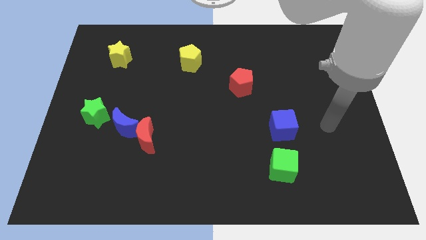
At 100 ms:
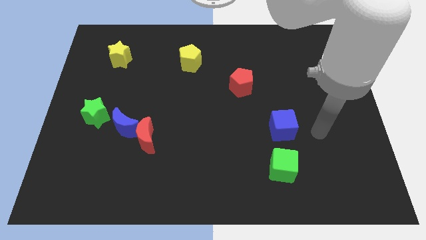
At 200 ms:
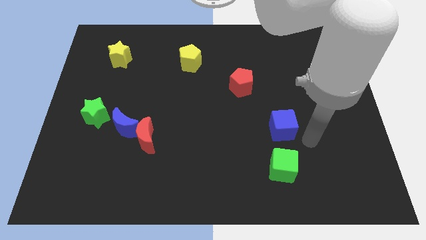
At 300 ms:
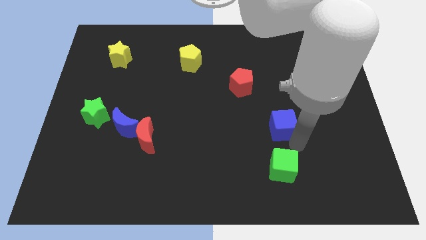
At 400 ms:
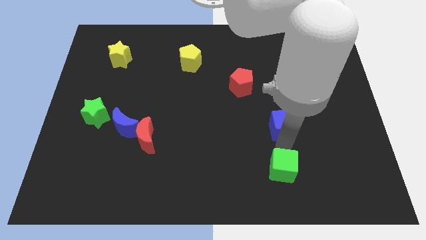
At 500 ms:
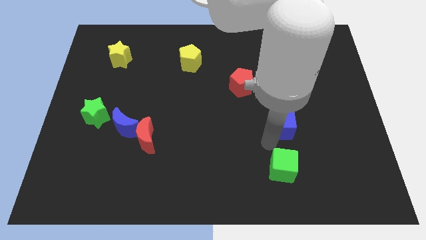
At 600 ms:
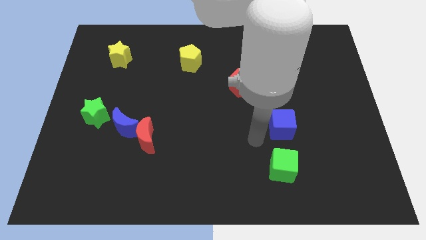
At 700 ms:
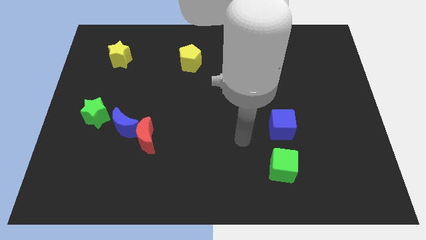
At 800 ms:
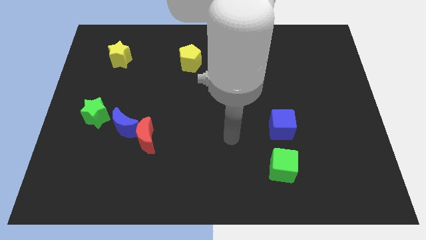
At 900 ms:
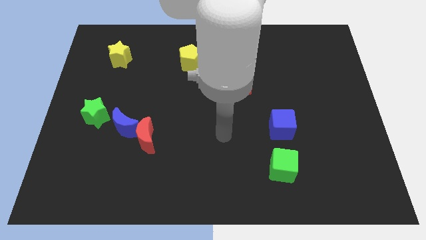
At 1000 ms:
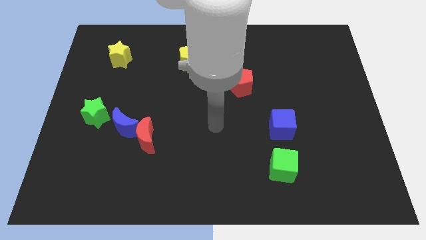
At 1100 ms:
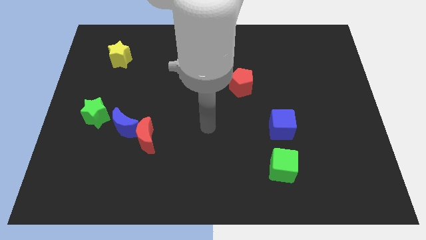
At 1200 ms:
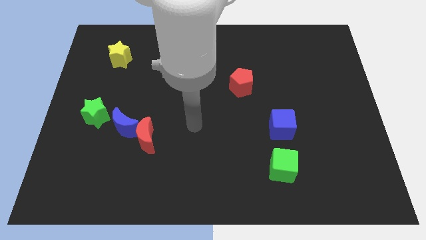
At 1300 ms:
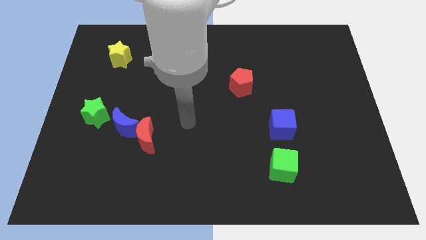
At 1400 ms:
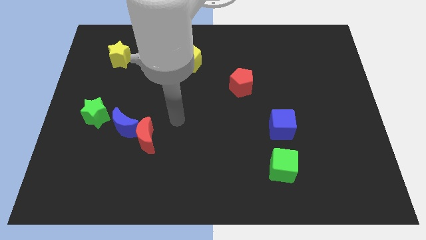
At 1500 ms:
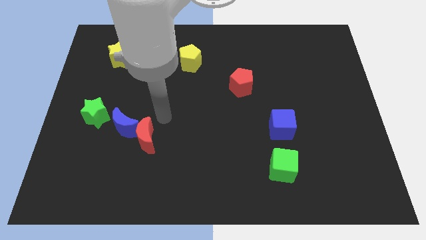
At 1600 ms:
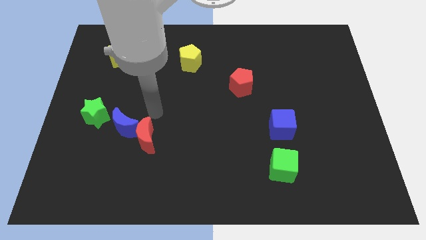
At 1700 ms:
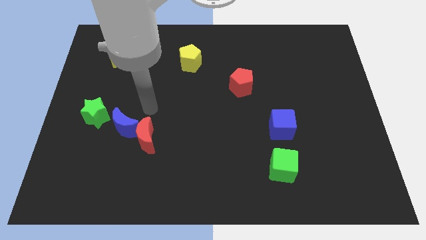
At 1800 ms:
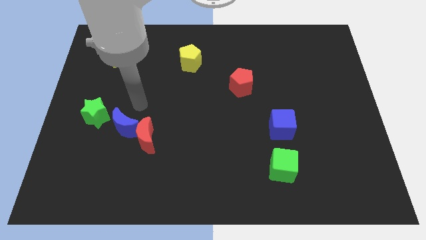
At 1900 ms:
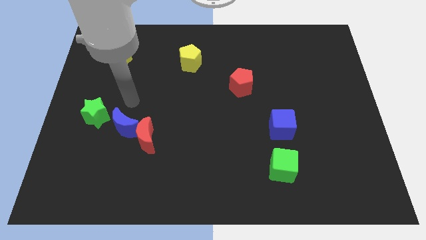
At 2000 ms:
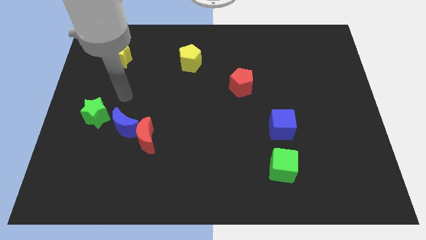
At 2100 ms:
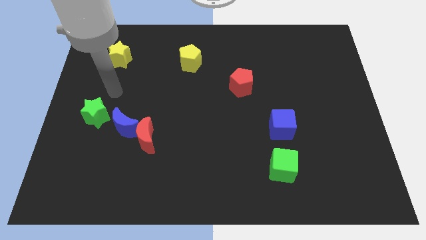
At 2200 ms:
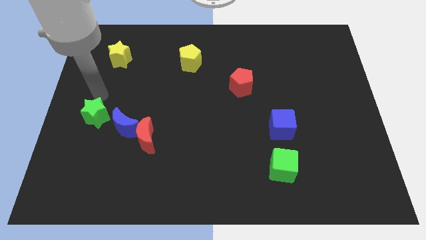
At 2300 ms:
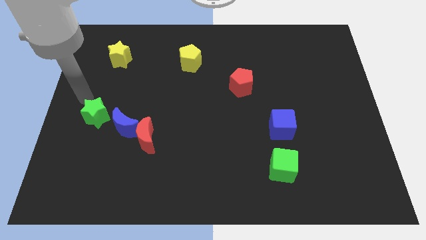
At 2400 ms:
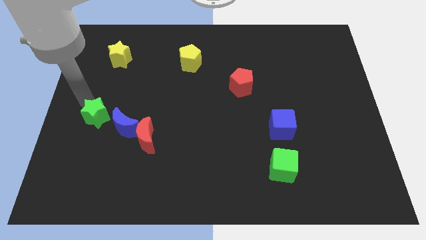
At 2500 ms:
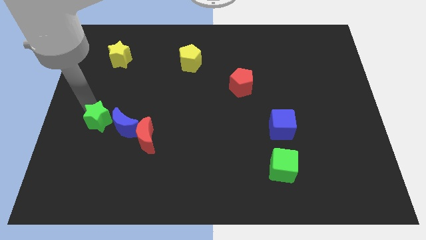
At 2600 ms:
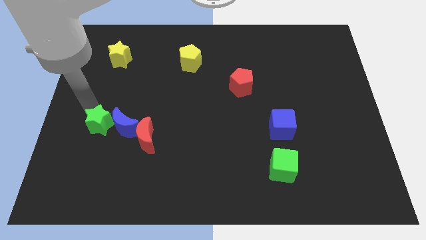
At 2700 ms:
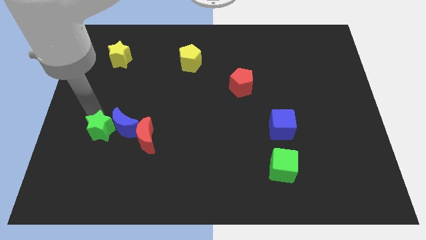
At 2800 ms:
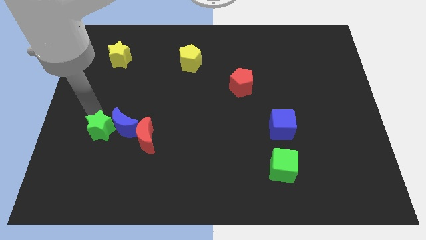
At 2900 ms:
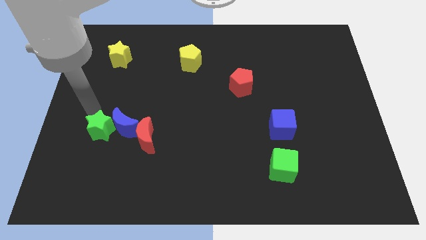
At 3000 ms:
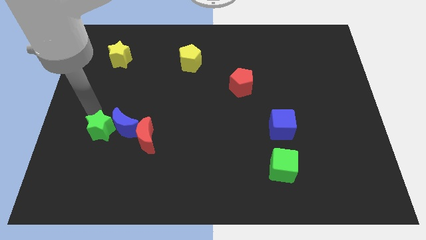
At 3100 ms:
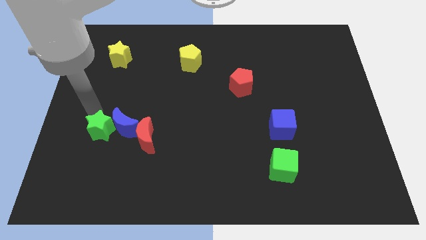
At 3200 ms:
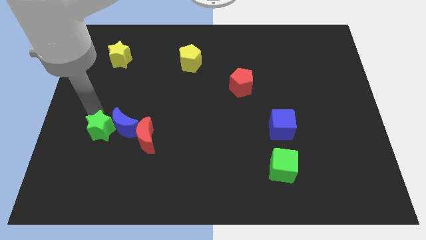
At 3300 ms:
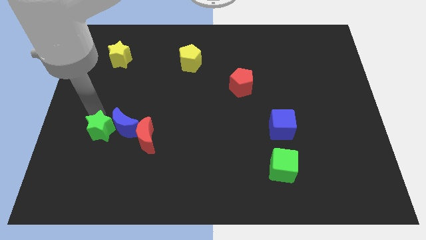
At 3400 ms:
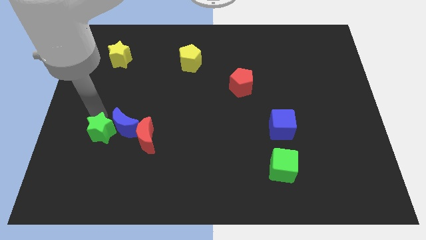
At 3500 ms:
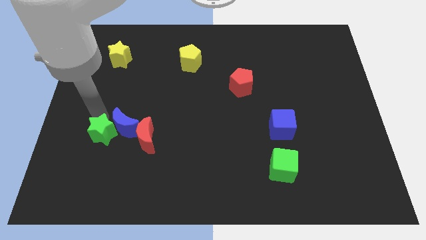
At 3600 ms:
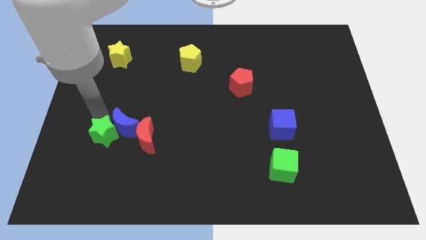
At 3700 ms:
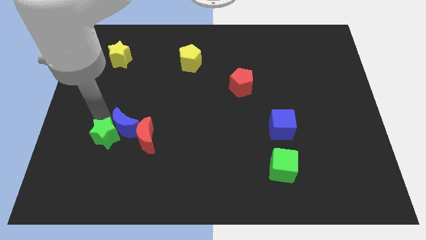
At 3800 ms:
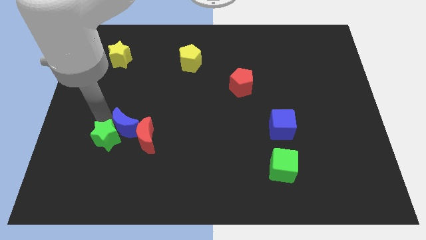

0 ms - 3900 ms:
slightly push the green star down and to the right

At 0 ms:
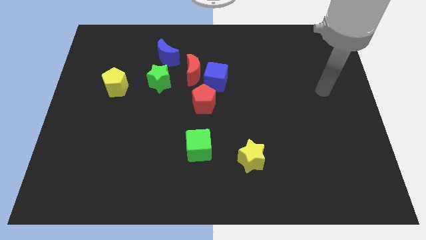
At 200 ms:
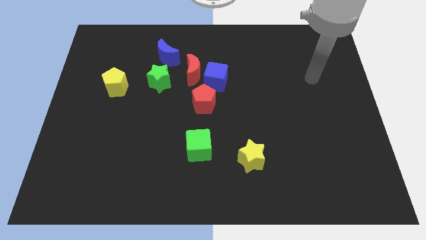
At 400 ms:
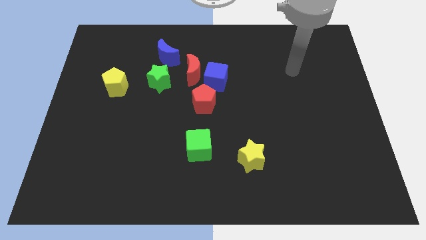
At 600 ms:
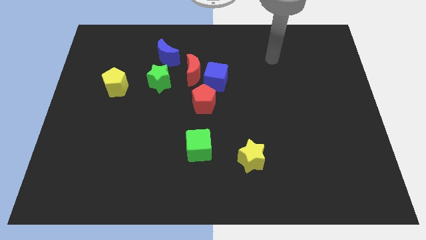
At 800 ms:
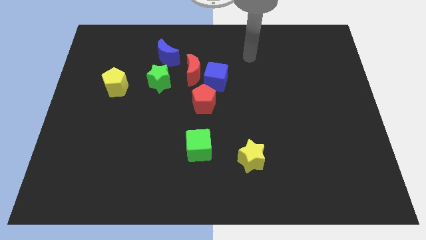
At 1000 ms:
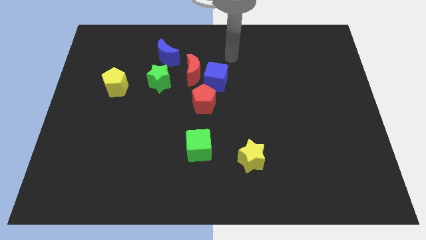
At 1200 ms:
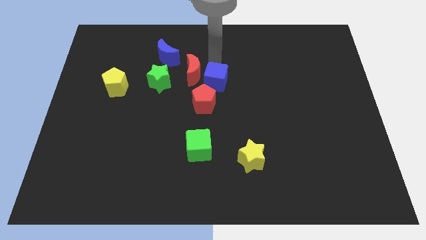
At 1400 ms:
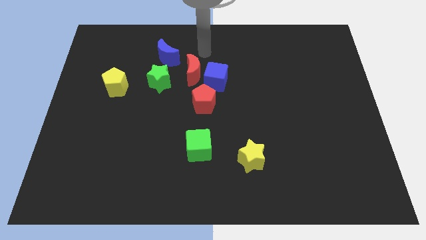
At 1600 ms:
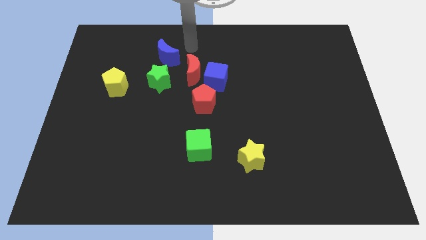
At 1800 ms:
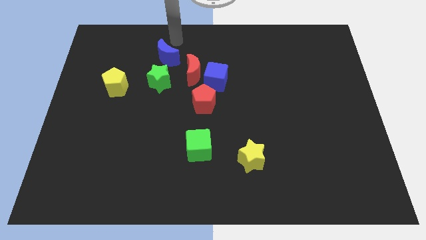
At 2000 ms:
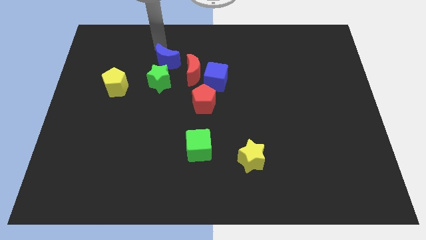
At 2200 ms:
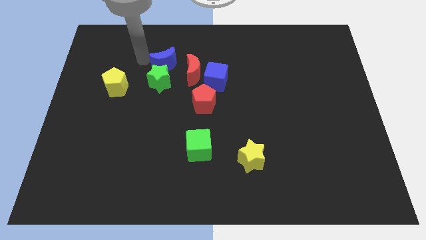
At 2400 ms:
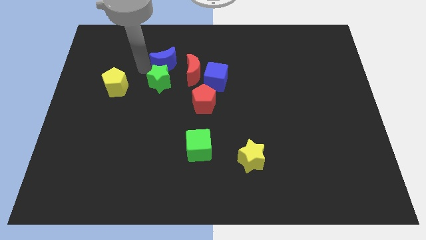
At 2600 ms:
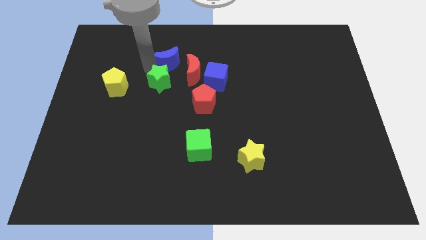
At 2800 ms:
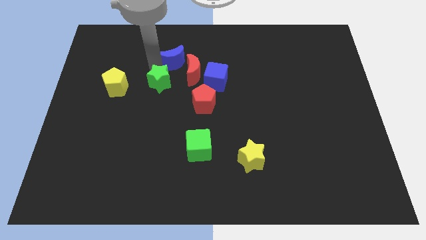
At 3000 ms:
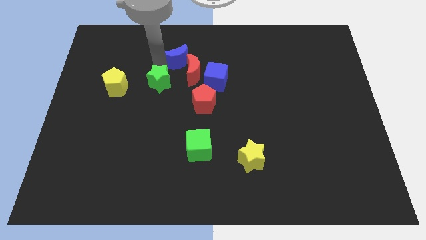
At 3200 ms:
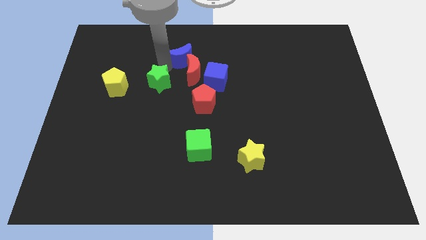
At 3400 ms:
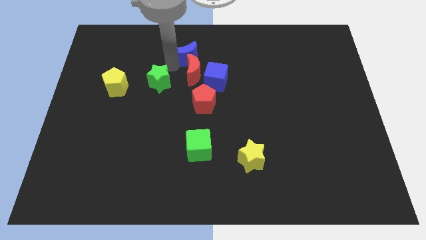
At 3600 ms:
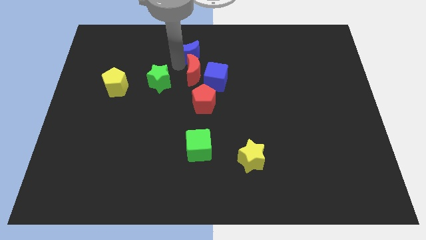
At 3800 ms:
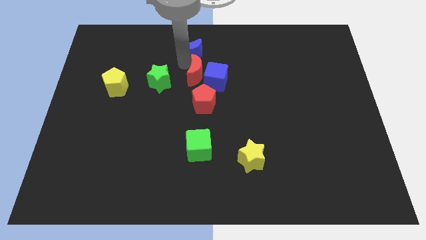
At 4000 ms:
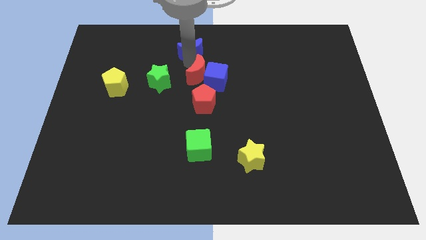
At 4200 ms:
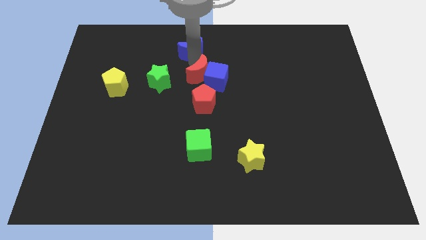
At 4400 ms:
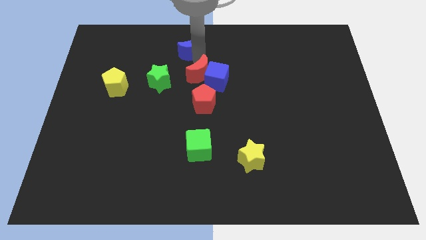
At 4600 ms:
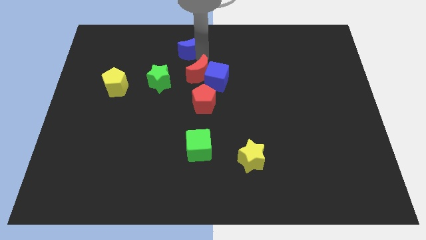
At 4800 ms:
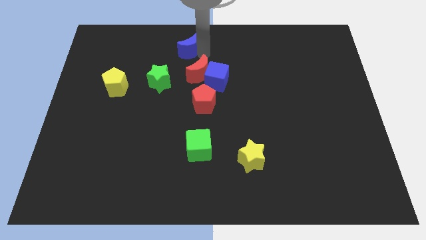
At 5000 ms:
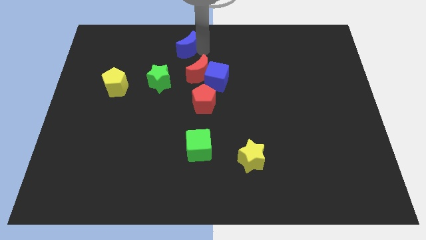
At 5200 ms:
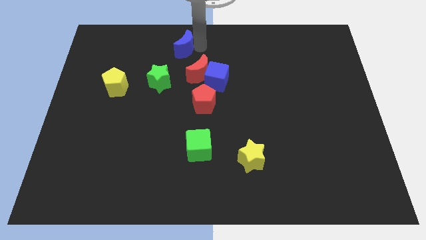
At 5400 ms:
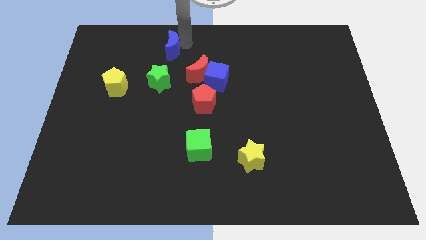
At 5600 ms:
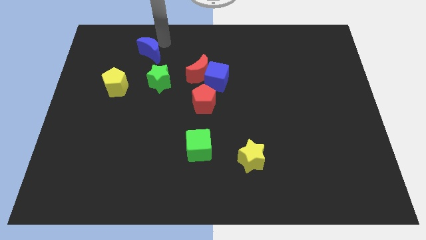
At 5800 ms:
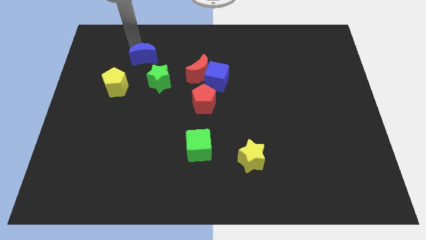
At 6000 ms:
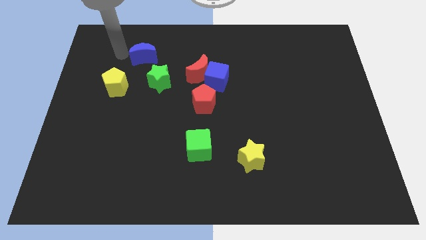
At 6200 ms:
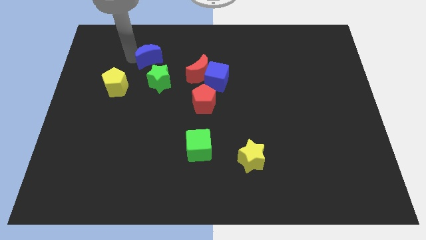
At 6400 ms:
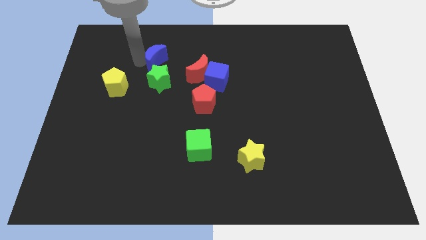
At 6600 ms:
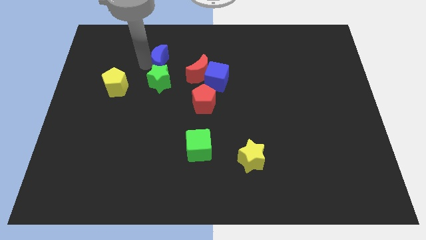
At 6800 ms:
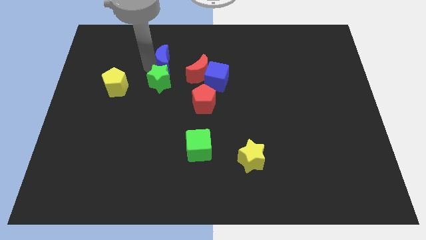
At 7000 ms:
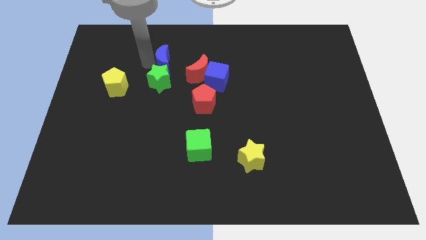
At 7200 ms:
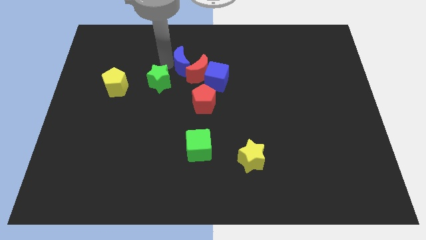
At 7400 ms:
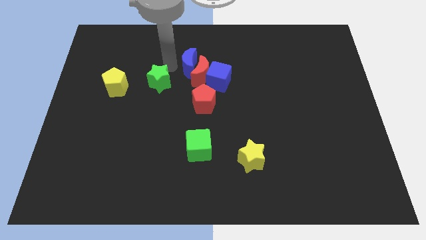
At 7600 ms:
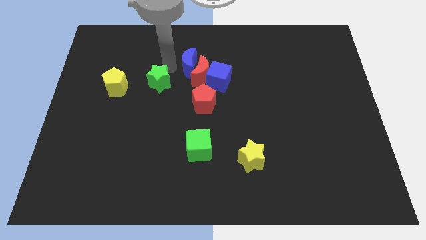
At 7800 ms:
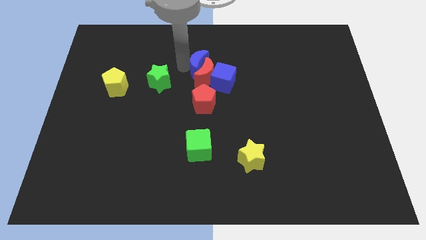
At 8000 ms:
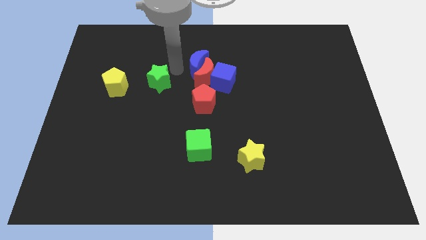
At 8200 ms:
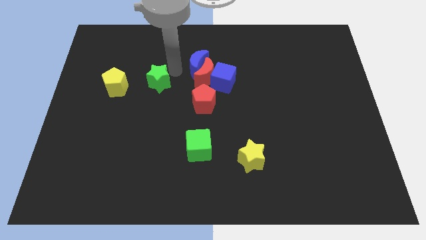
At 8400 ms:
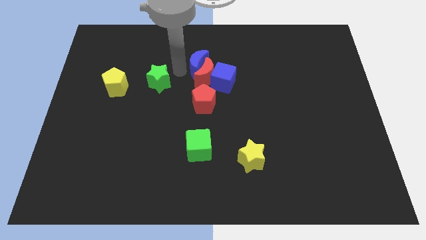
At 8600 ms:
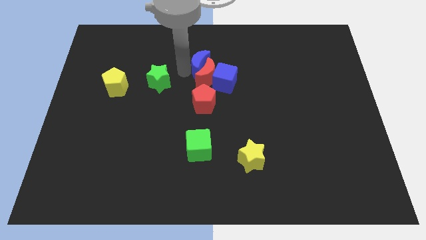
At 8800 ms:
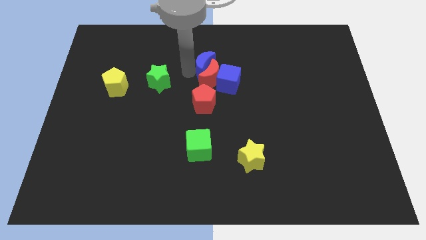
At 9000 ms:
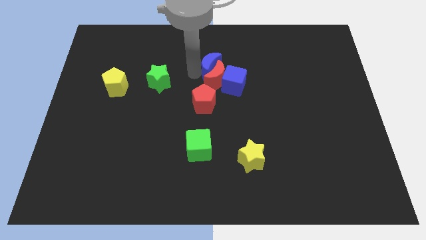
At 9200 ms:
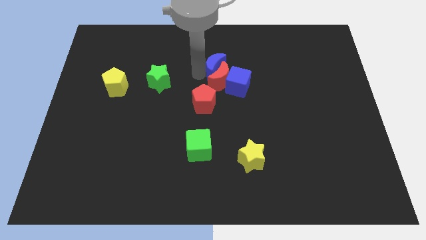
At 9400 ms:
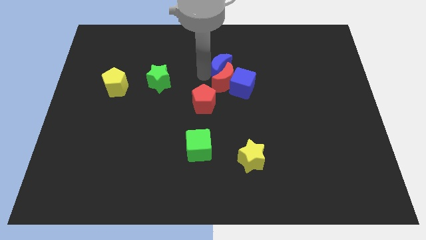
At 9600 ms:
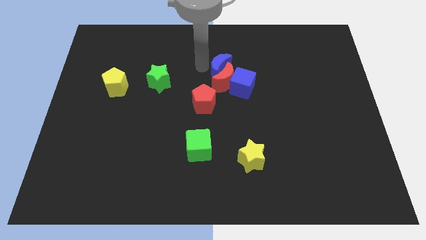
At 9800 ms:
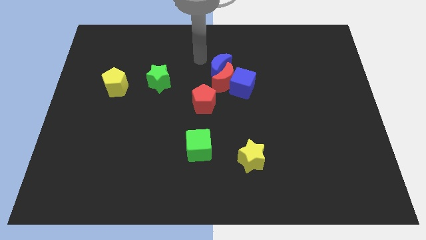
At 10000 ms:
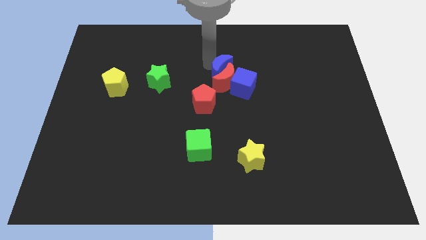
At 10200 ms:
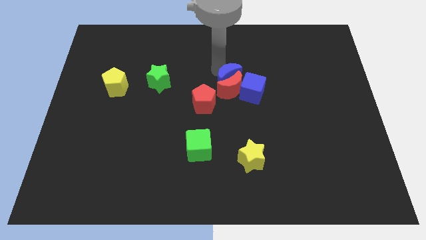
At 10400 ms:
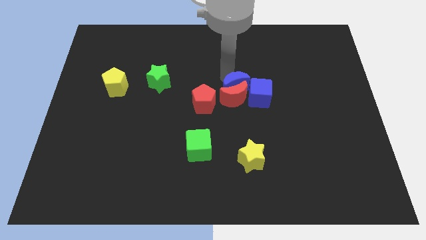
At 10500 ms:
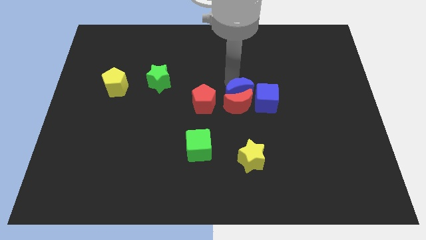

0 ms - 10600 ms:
move the blue moon downwards and then right
